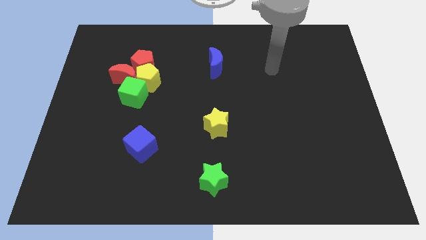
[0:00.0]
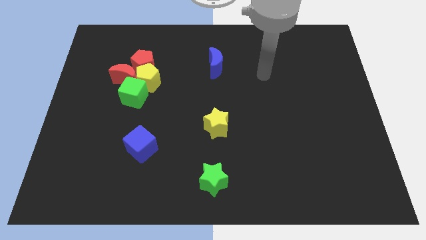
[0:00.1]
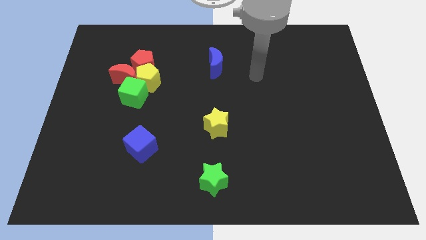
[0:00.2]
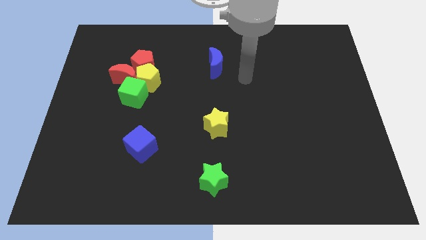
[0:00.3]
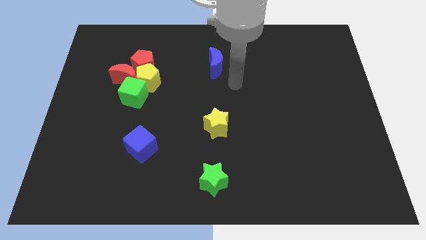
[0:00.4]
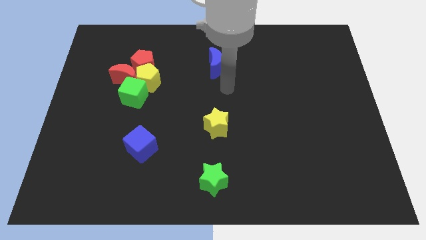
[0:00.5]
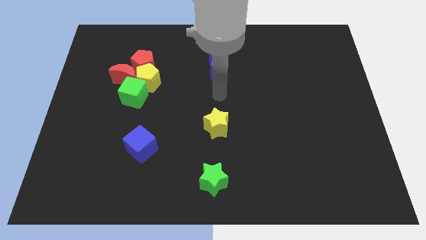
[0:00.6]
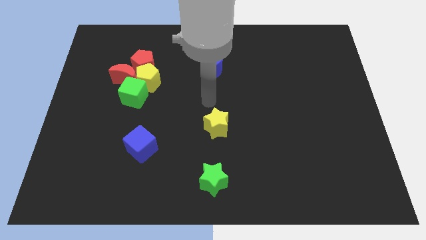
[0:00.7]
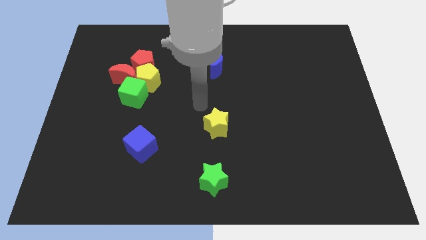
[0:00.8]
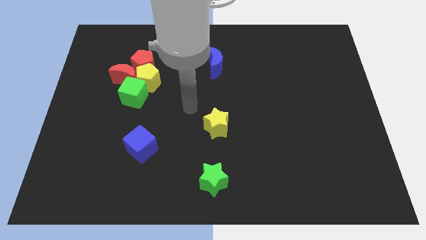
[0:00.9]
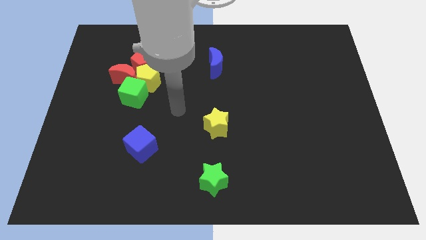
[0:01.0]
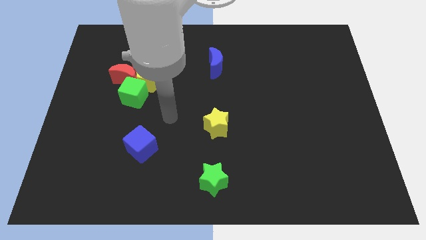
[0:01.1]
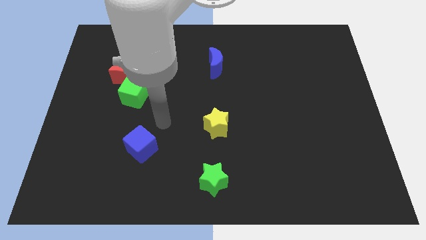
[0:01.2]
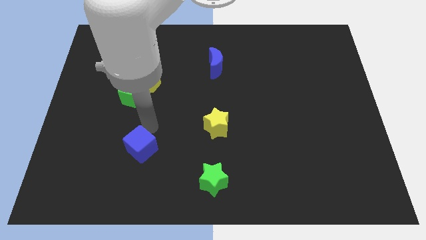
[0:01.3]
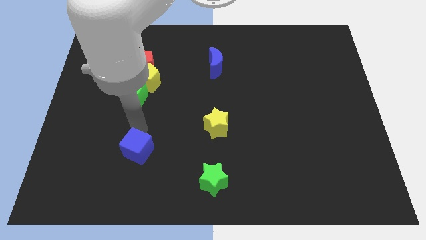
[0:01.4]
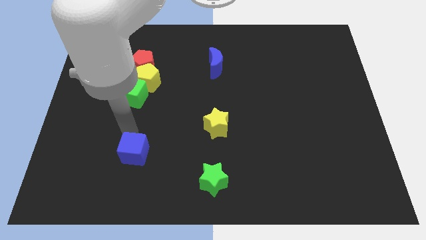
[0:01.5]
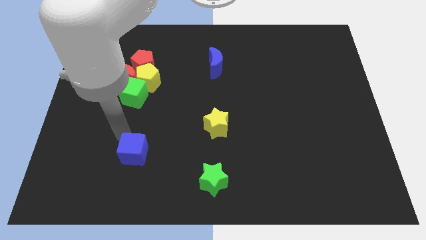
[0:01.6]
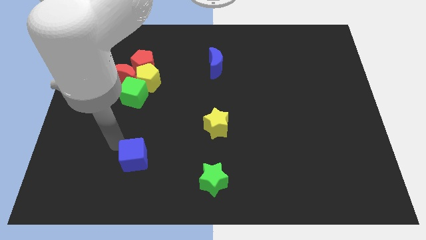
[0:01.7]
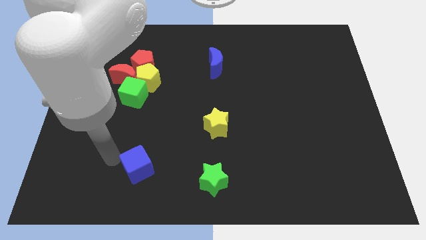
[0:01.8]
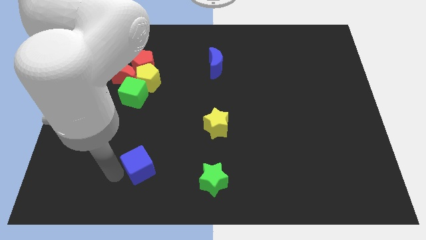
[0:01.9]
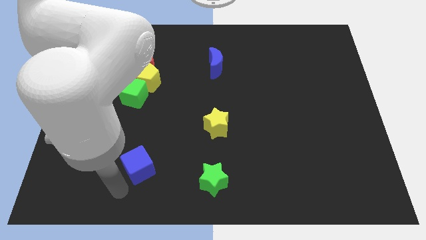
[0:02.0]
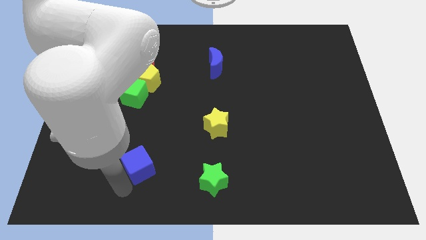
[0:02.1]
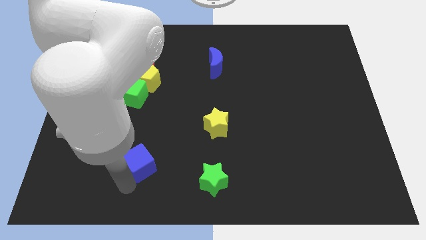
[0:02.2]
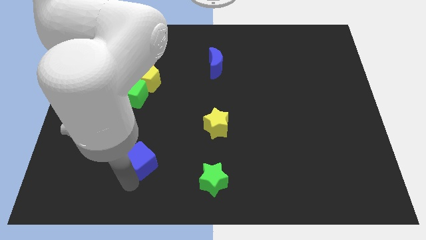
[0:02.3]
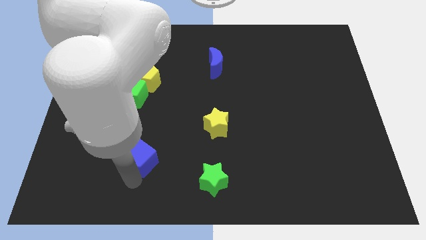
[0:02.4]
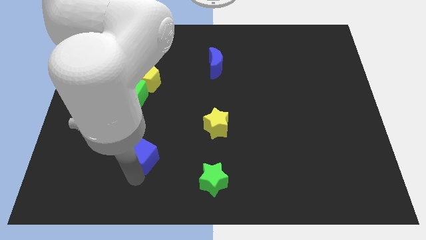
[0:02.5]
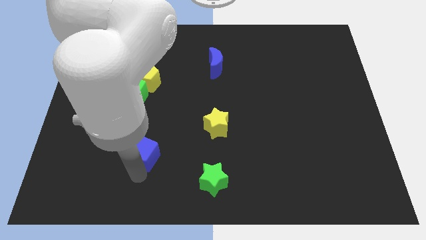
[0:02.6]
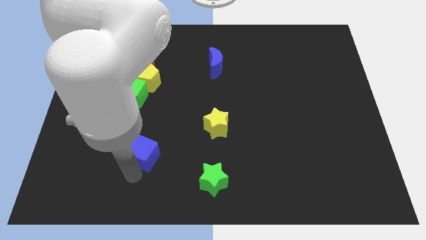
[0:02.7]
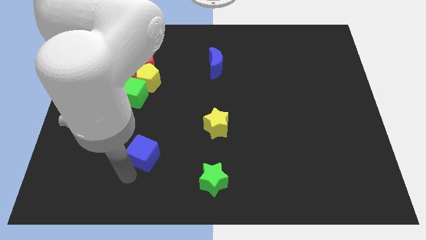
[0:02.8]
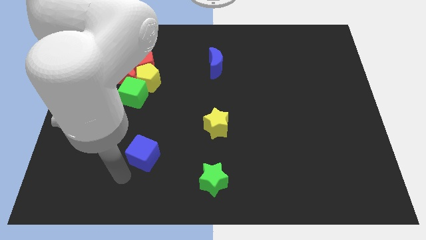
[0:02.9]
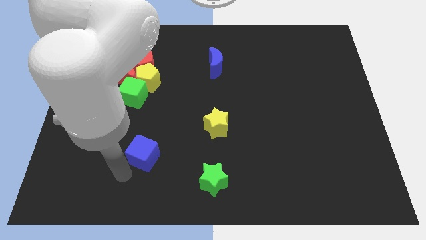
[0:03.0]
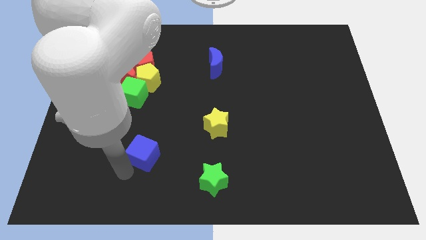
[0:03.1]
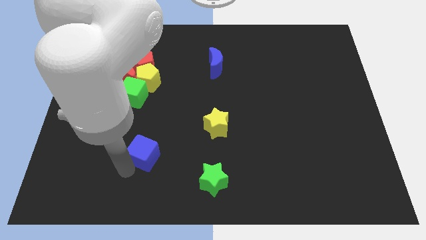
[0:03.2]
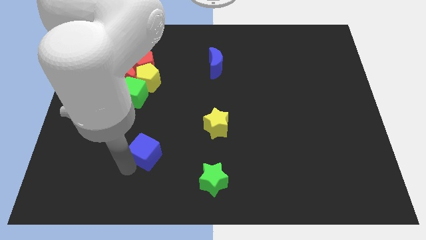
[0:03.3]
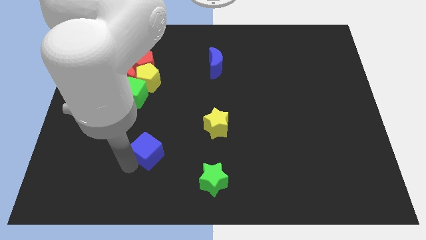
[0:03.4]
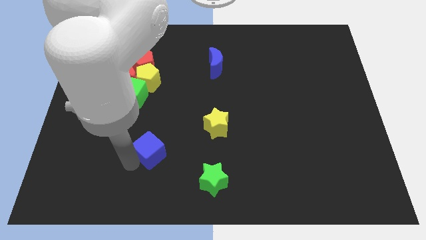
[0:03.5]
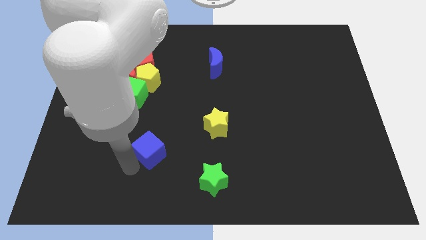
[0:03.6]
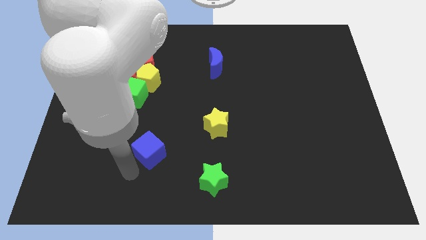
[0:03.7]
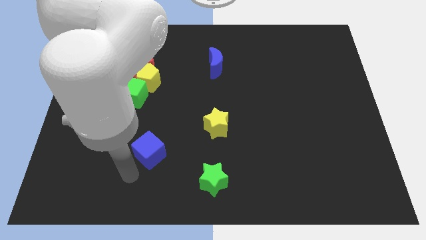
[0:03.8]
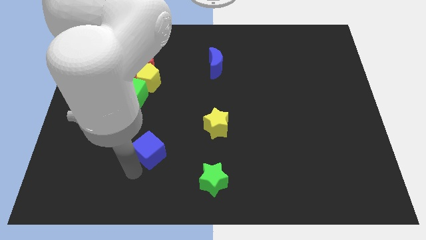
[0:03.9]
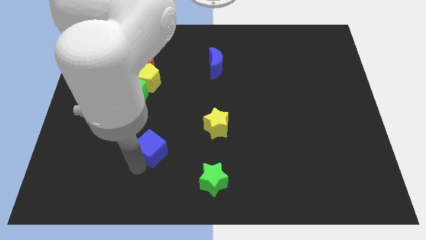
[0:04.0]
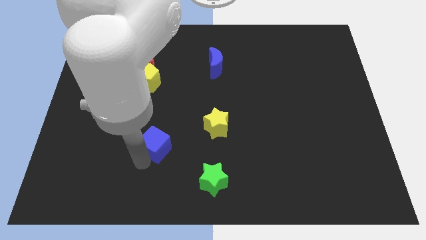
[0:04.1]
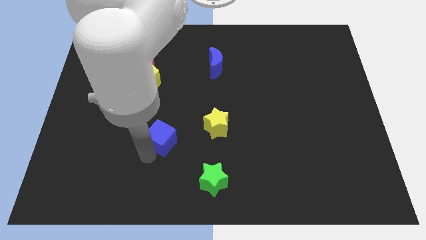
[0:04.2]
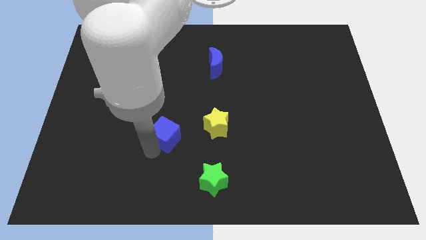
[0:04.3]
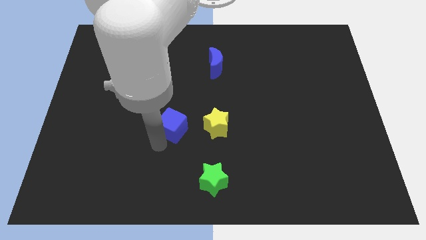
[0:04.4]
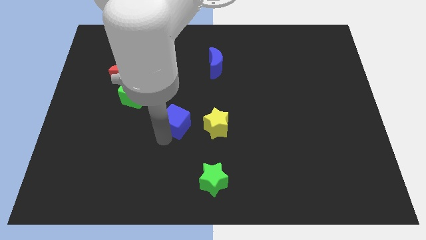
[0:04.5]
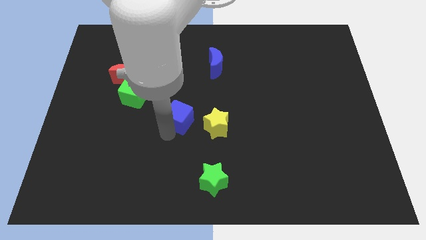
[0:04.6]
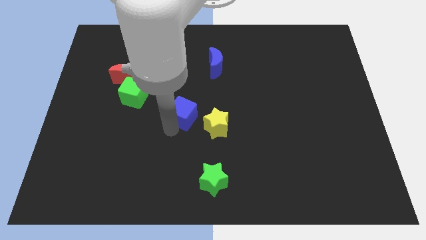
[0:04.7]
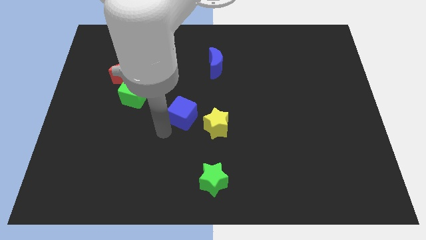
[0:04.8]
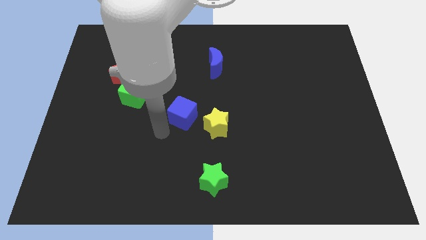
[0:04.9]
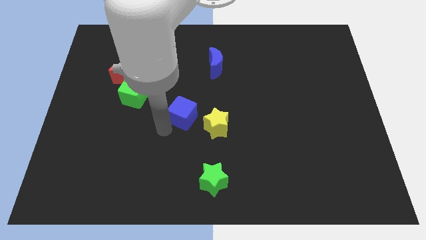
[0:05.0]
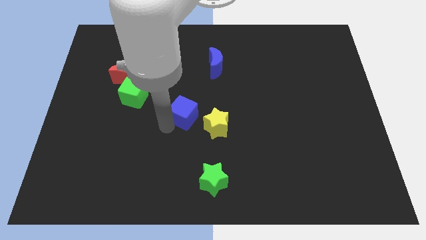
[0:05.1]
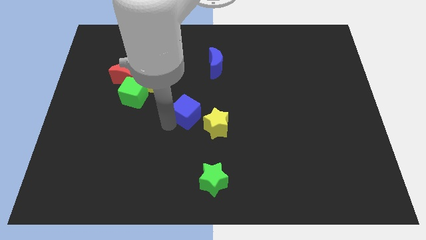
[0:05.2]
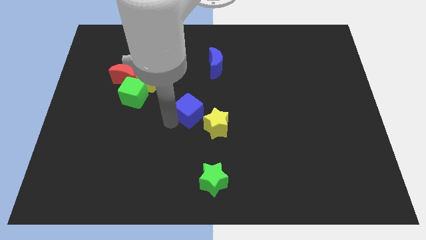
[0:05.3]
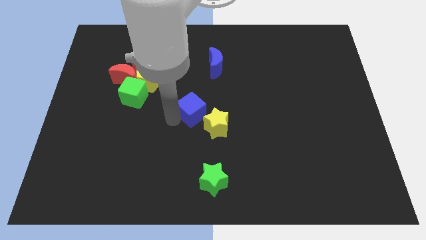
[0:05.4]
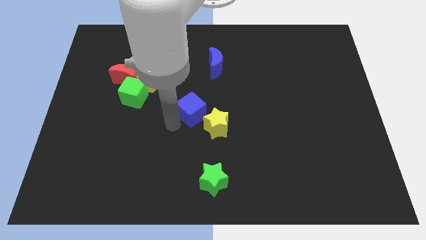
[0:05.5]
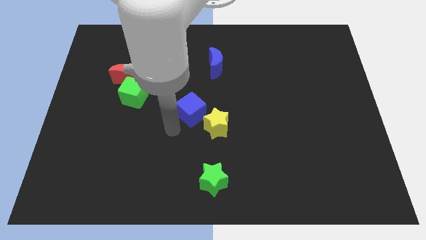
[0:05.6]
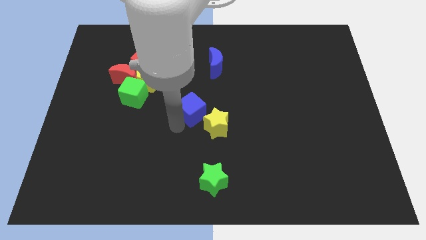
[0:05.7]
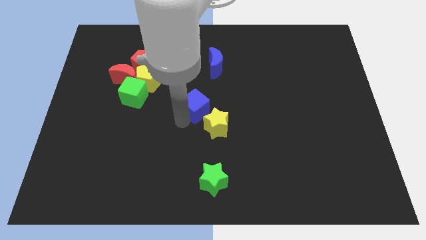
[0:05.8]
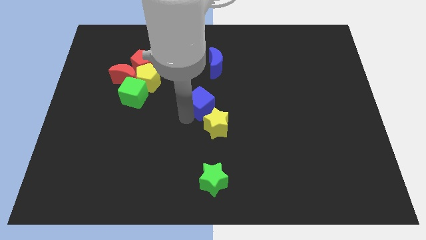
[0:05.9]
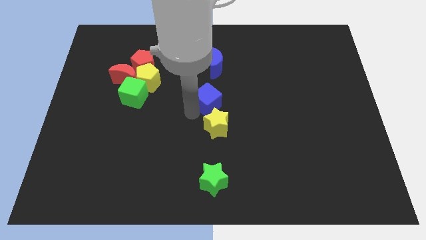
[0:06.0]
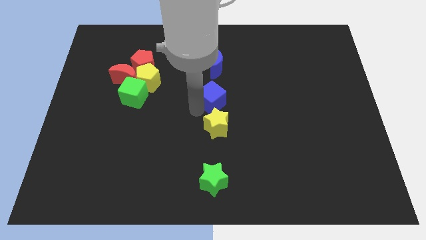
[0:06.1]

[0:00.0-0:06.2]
push the blue cube up and right

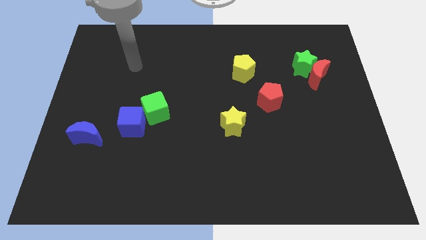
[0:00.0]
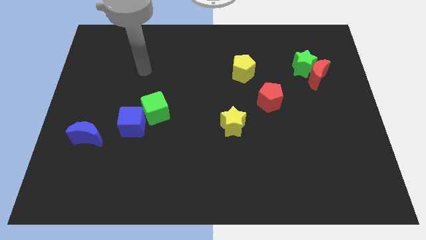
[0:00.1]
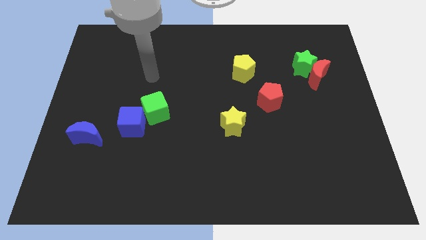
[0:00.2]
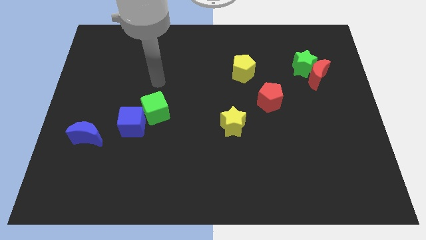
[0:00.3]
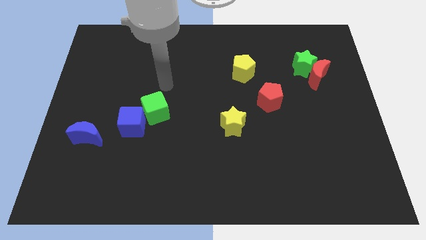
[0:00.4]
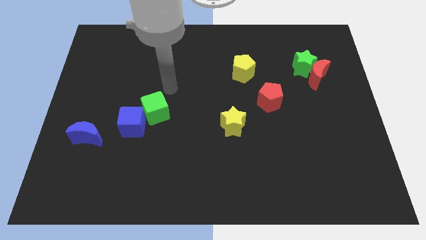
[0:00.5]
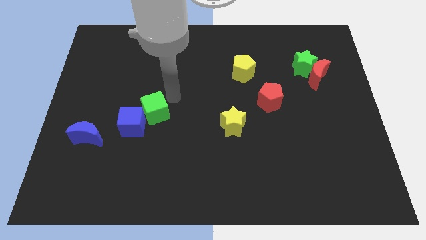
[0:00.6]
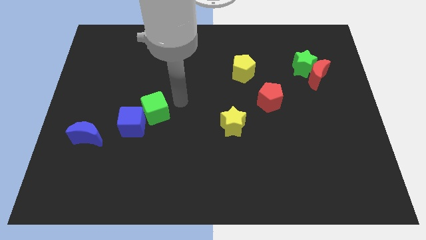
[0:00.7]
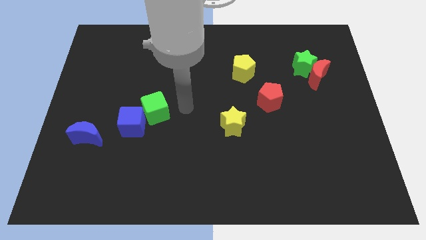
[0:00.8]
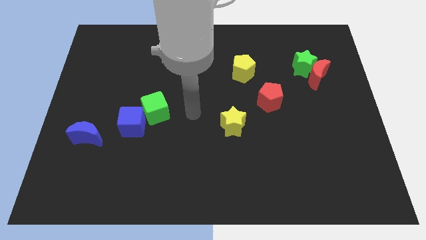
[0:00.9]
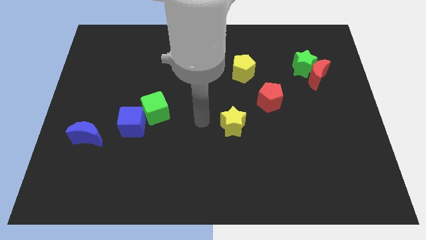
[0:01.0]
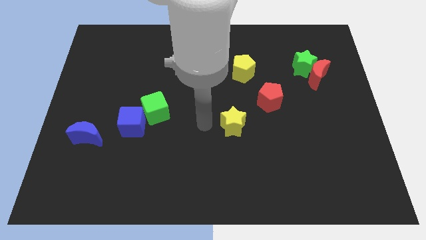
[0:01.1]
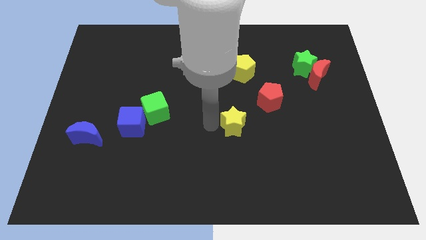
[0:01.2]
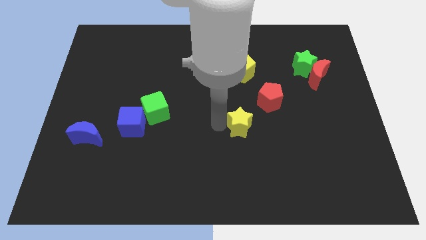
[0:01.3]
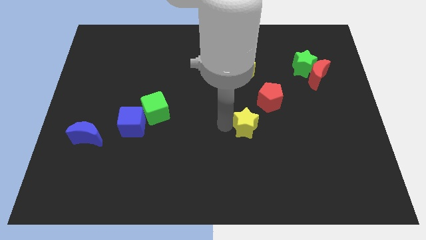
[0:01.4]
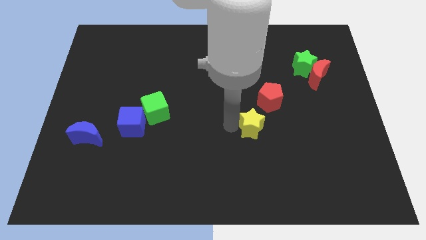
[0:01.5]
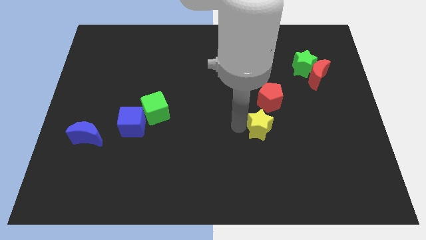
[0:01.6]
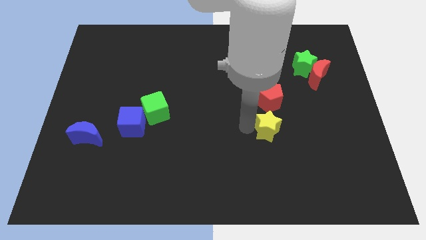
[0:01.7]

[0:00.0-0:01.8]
push the yellow star a bit to the right
